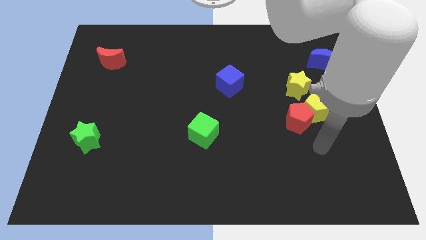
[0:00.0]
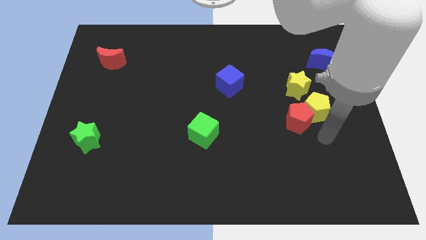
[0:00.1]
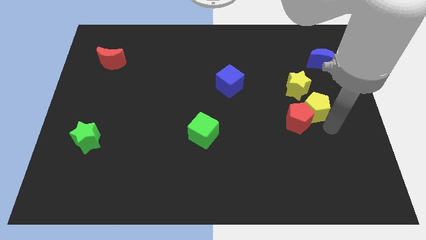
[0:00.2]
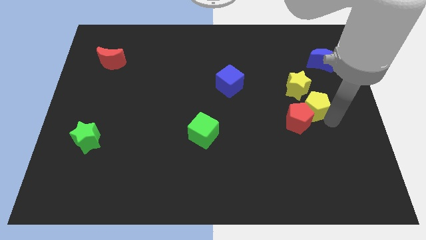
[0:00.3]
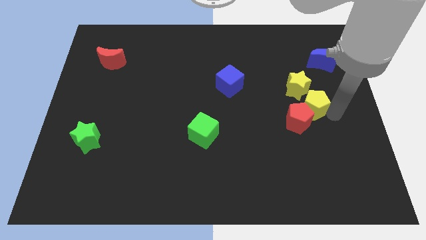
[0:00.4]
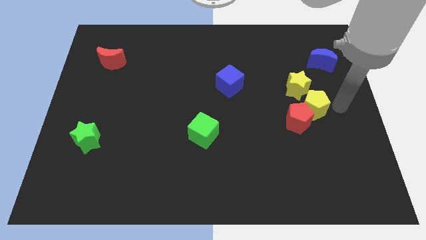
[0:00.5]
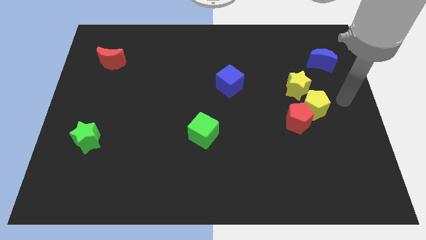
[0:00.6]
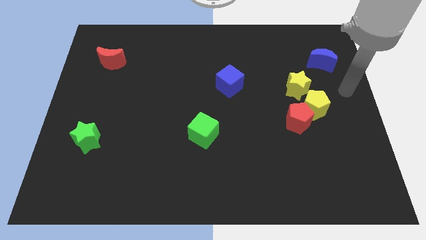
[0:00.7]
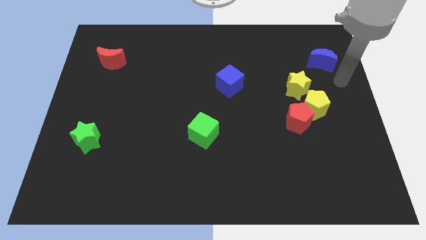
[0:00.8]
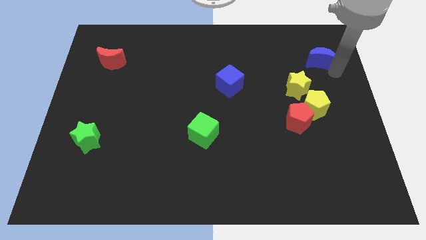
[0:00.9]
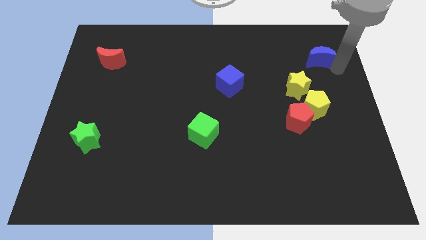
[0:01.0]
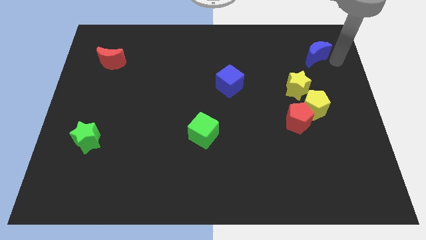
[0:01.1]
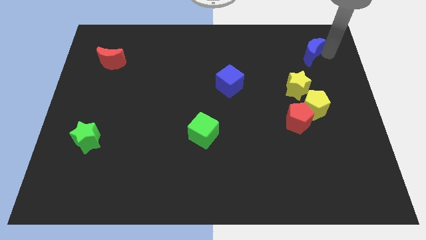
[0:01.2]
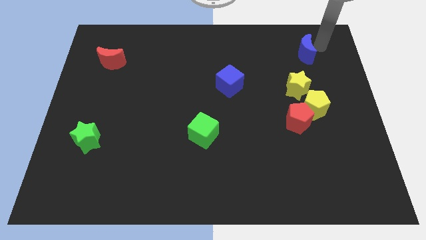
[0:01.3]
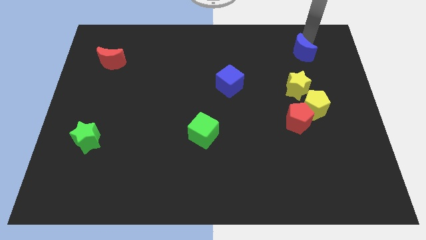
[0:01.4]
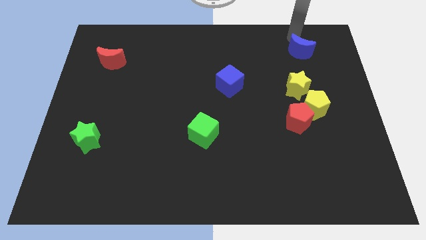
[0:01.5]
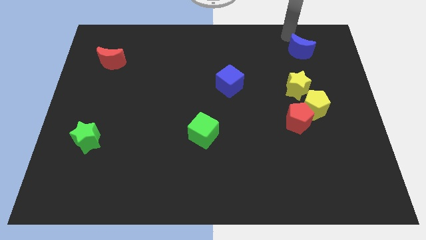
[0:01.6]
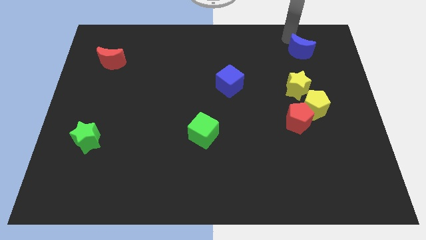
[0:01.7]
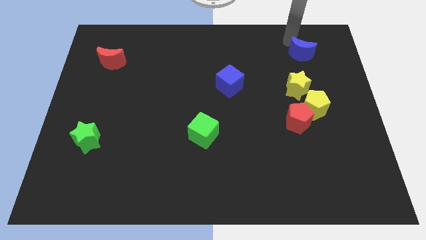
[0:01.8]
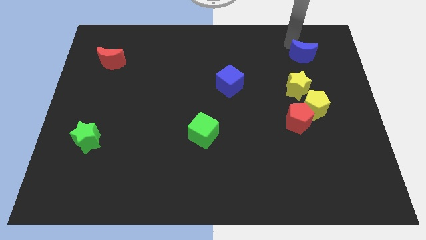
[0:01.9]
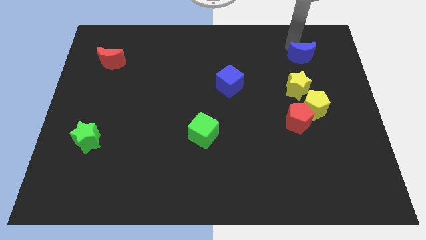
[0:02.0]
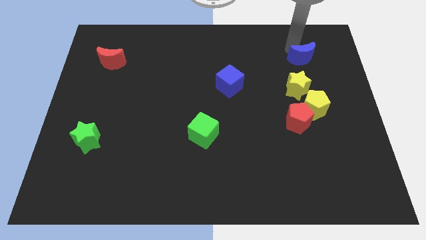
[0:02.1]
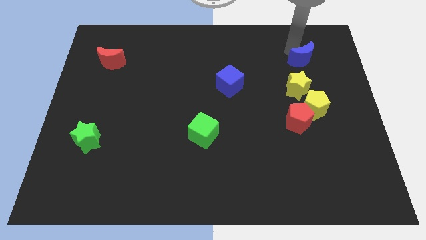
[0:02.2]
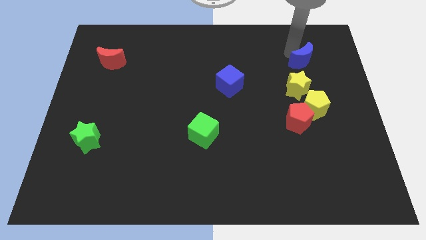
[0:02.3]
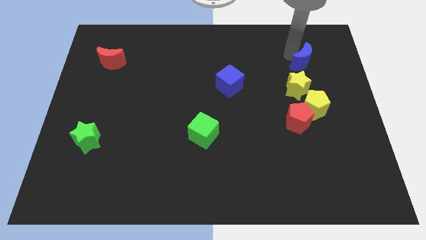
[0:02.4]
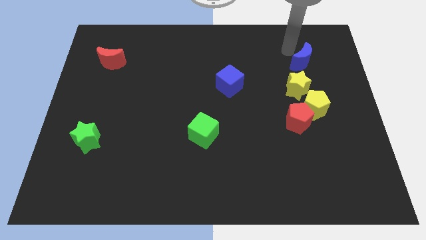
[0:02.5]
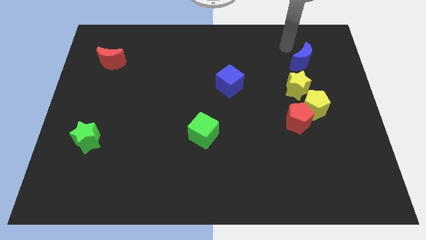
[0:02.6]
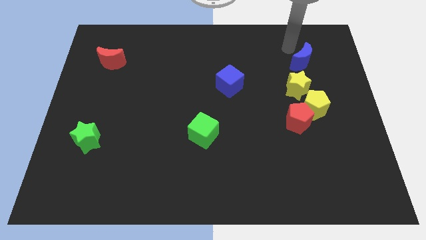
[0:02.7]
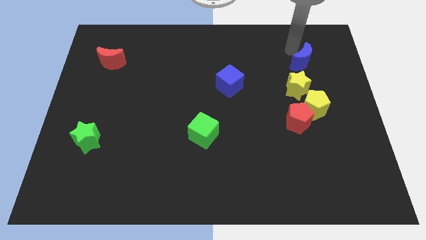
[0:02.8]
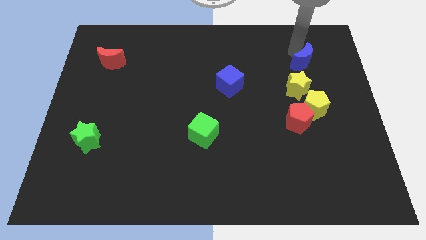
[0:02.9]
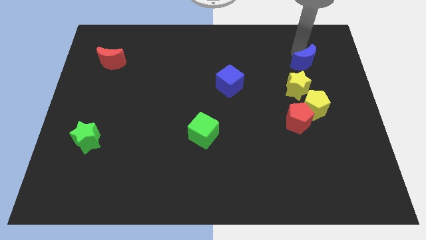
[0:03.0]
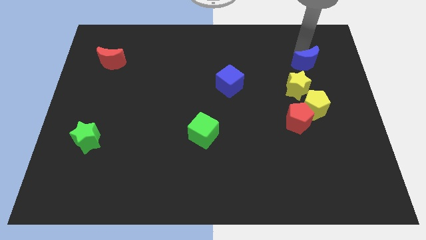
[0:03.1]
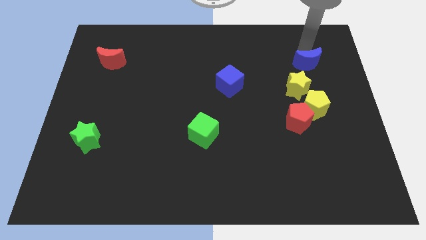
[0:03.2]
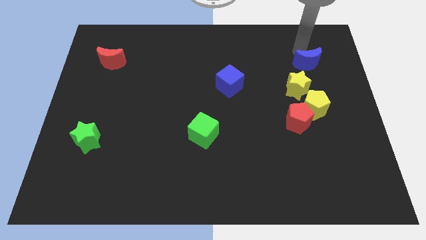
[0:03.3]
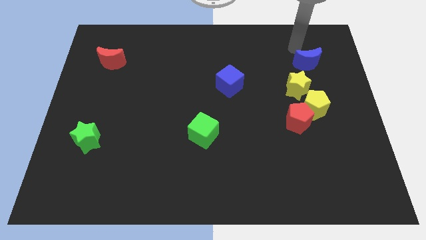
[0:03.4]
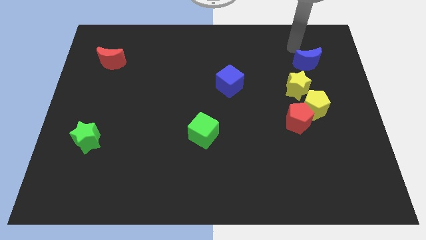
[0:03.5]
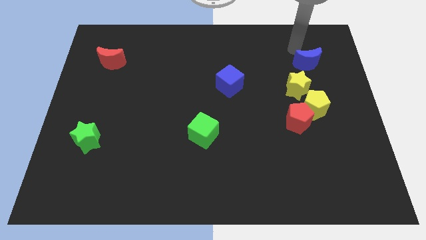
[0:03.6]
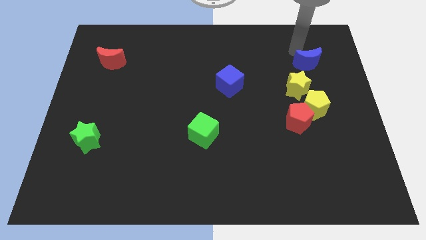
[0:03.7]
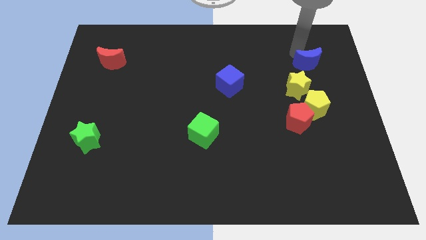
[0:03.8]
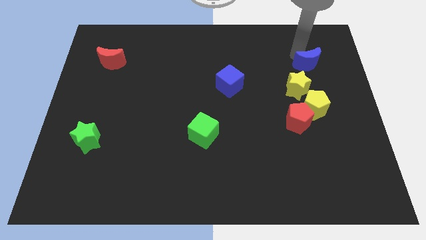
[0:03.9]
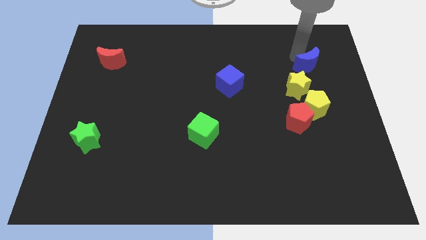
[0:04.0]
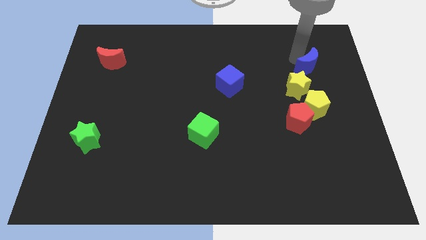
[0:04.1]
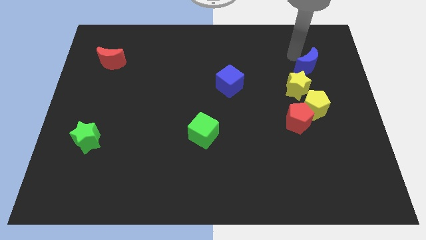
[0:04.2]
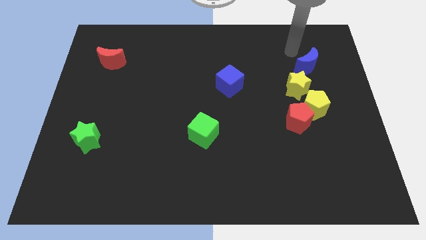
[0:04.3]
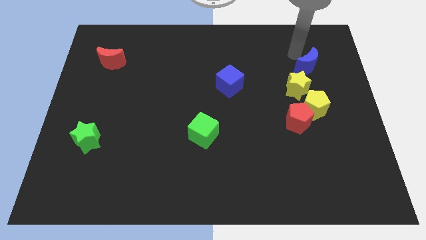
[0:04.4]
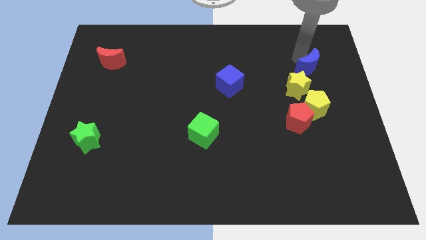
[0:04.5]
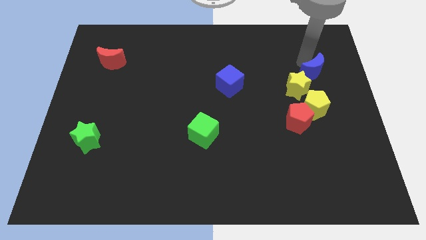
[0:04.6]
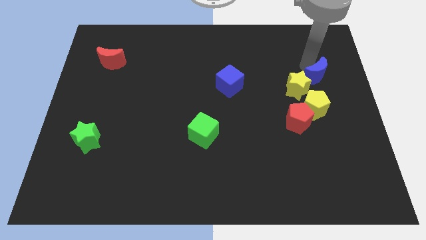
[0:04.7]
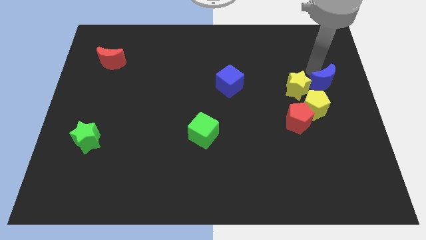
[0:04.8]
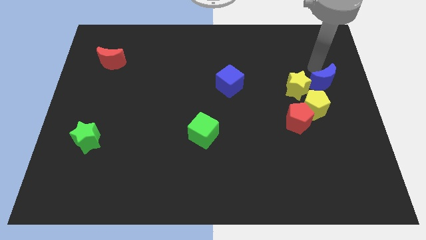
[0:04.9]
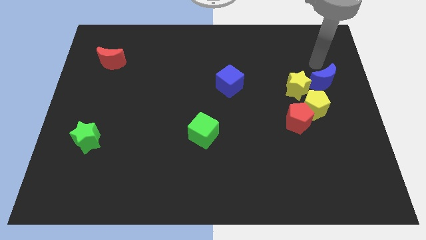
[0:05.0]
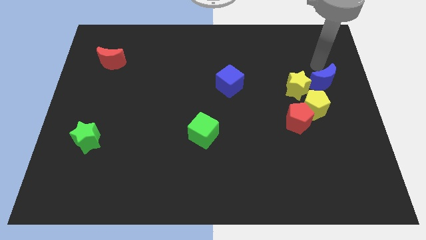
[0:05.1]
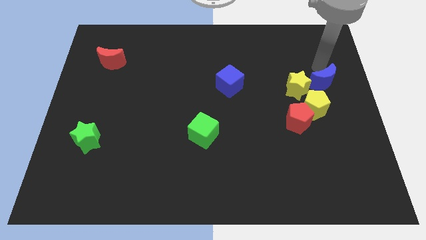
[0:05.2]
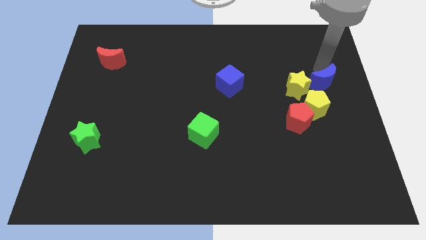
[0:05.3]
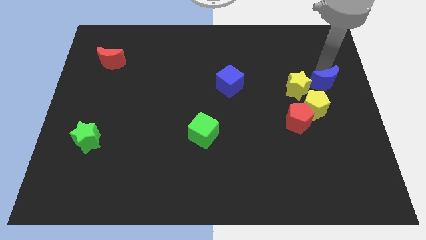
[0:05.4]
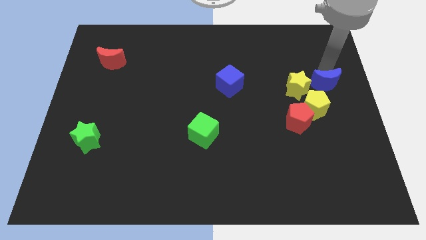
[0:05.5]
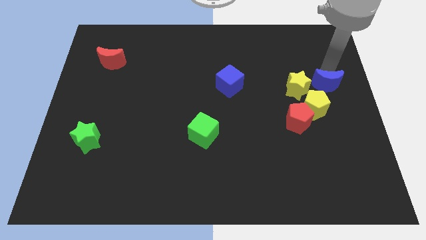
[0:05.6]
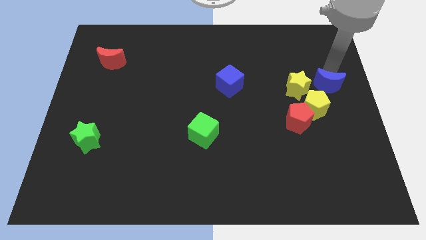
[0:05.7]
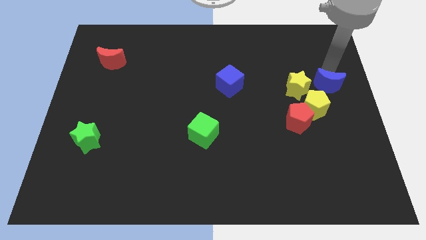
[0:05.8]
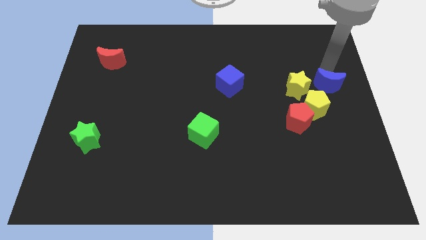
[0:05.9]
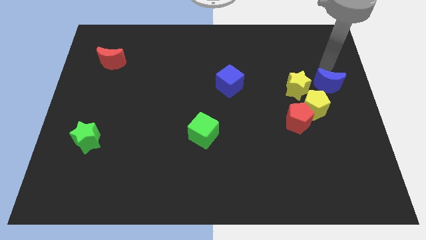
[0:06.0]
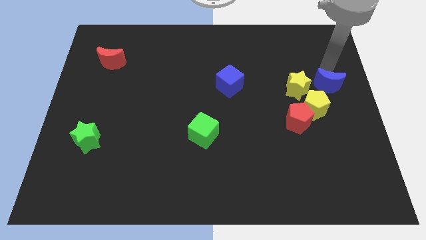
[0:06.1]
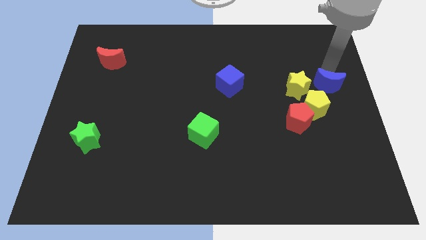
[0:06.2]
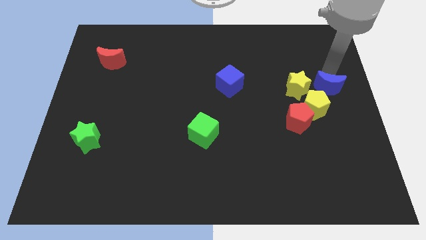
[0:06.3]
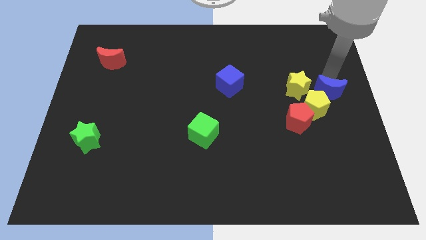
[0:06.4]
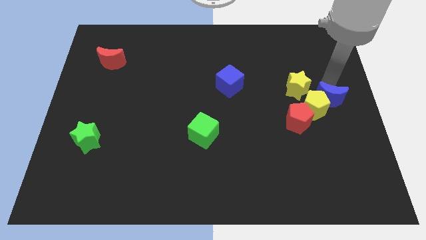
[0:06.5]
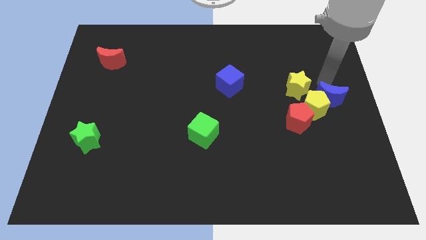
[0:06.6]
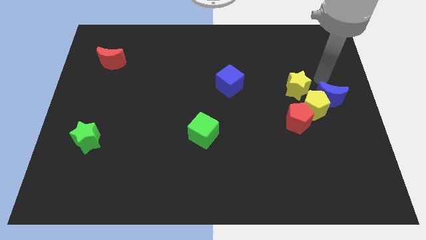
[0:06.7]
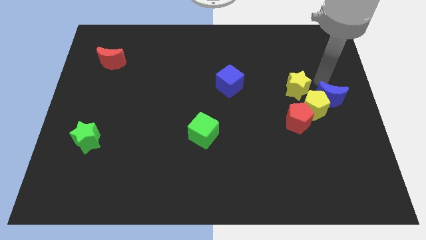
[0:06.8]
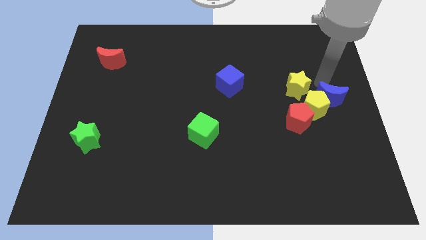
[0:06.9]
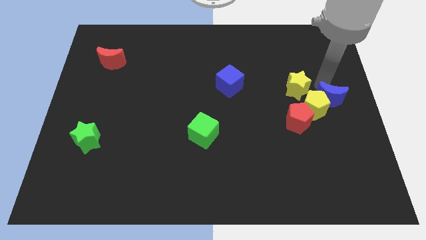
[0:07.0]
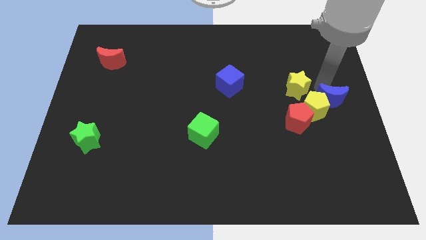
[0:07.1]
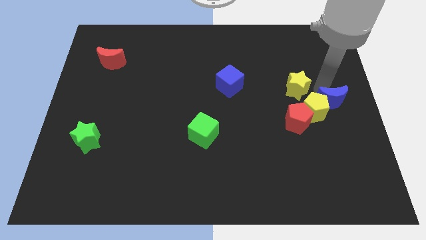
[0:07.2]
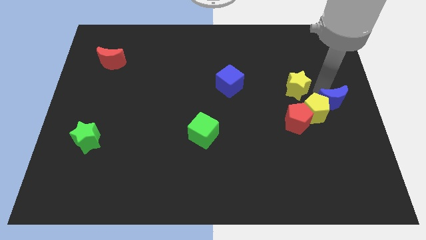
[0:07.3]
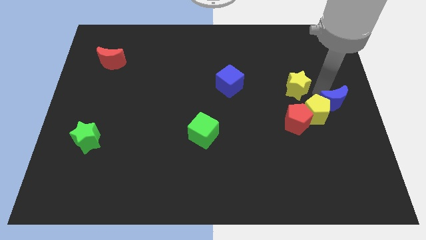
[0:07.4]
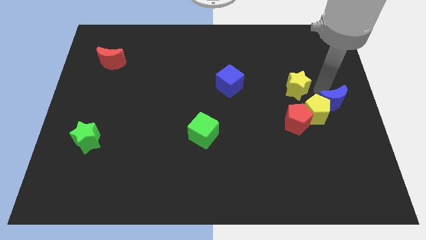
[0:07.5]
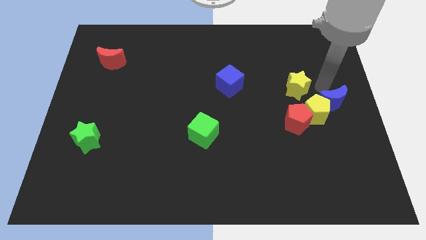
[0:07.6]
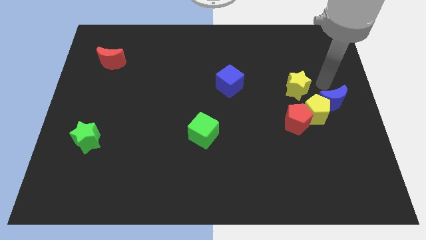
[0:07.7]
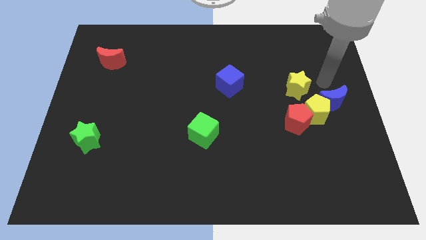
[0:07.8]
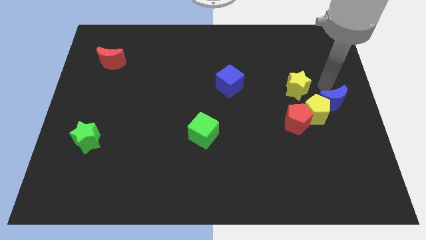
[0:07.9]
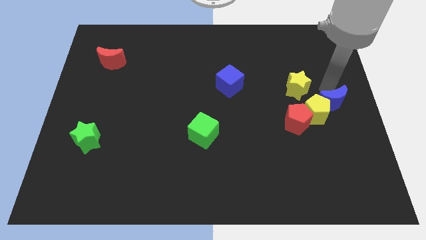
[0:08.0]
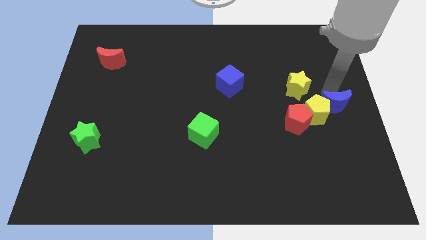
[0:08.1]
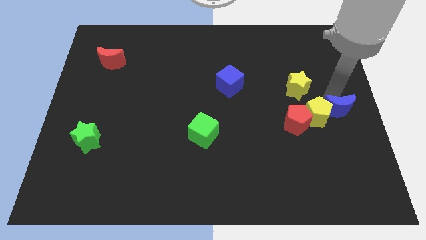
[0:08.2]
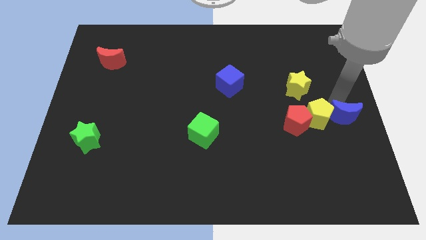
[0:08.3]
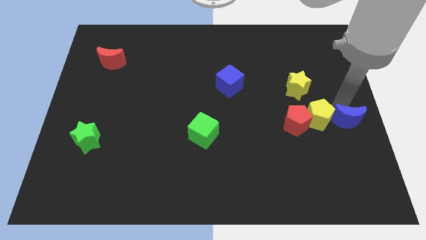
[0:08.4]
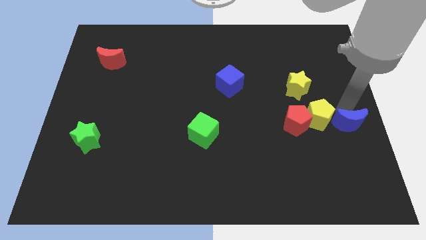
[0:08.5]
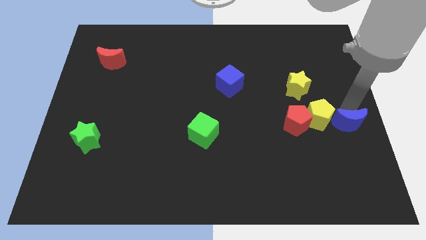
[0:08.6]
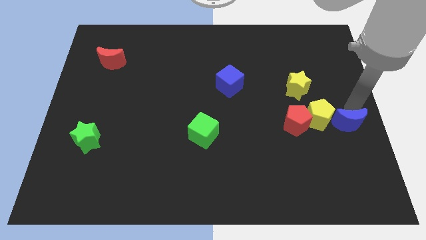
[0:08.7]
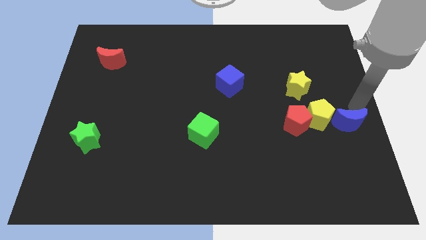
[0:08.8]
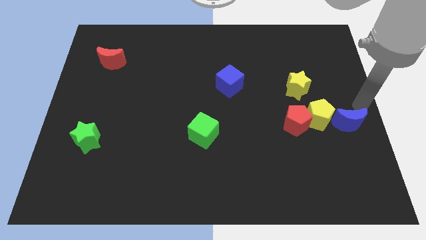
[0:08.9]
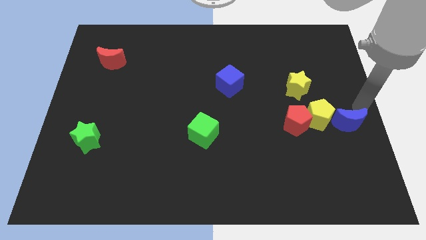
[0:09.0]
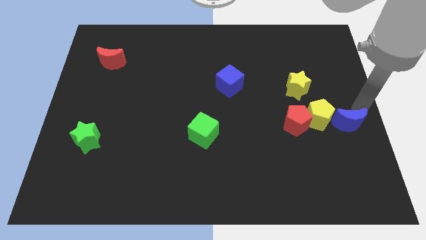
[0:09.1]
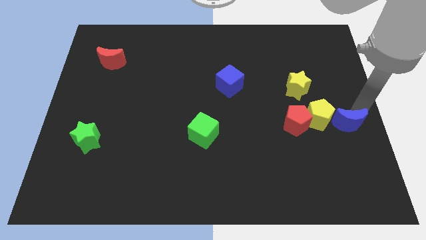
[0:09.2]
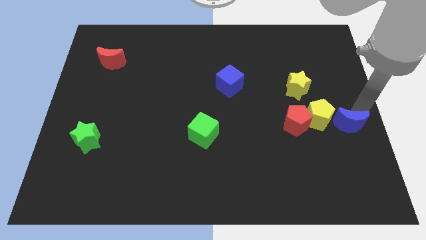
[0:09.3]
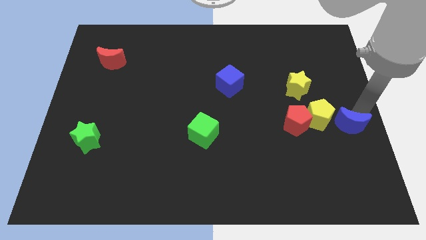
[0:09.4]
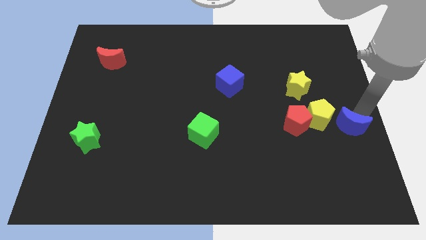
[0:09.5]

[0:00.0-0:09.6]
move the blue moon down
